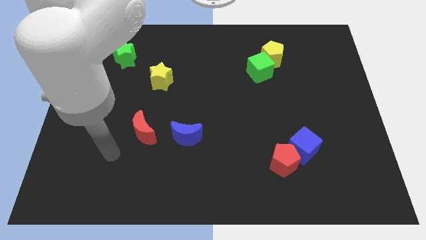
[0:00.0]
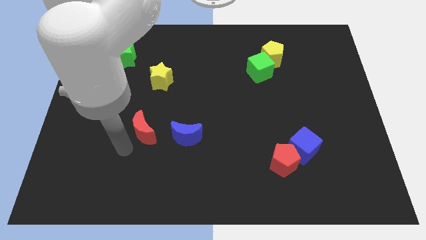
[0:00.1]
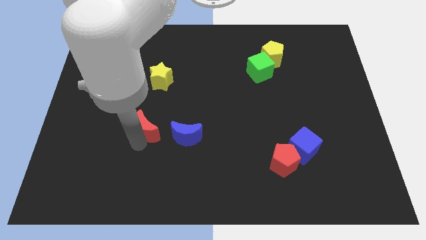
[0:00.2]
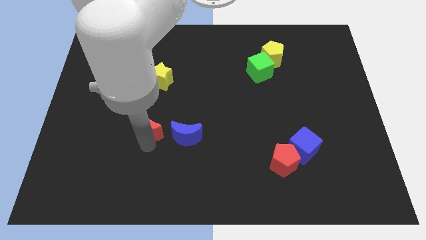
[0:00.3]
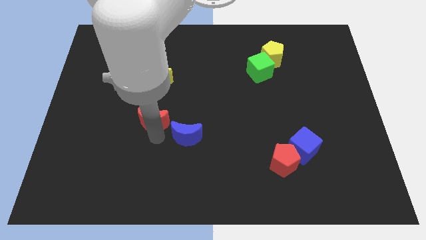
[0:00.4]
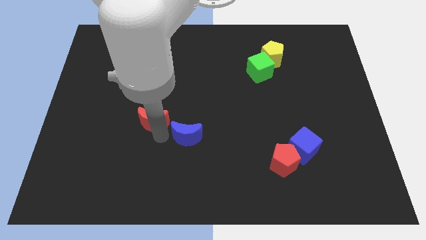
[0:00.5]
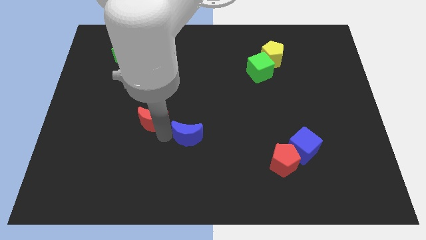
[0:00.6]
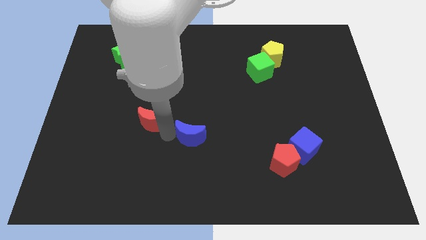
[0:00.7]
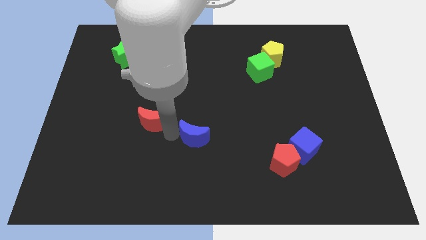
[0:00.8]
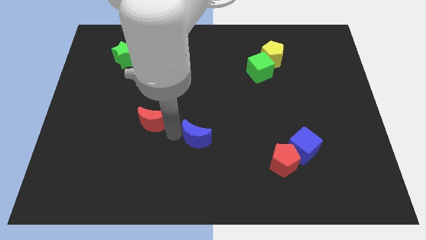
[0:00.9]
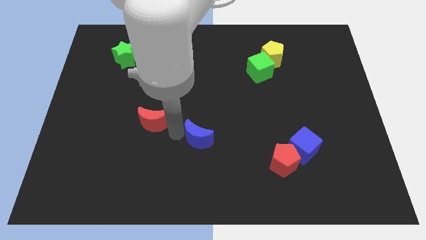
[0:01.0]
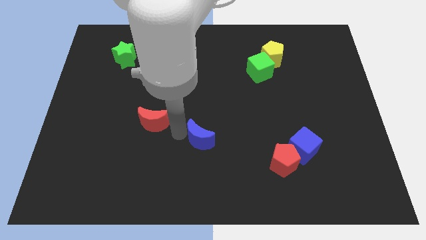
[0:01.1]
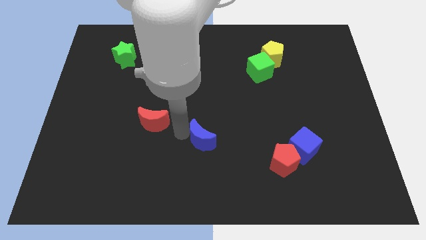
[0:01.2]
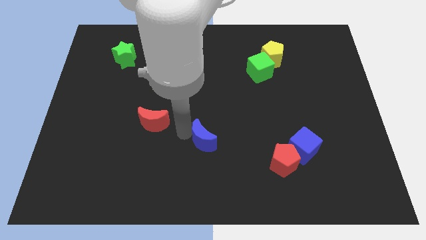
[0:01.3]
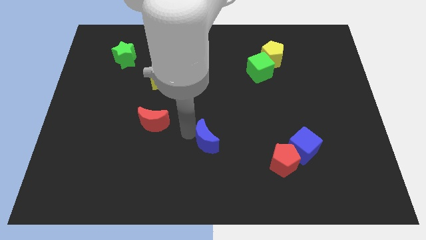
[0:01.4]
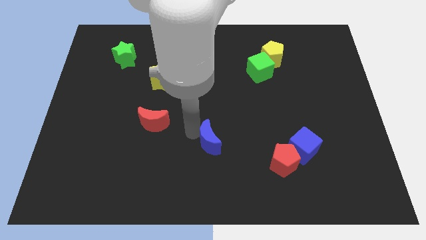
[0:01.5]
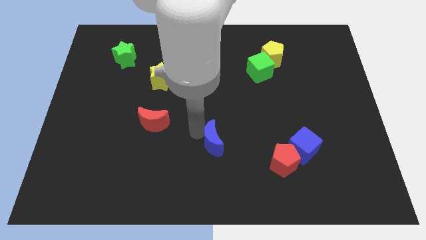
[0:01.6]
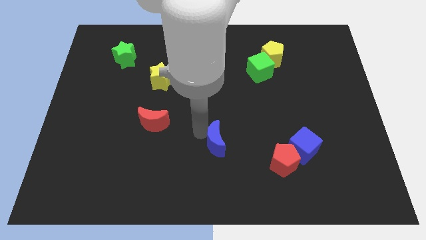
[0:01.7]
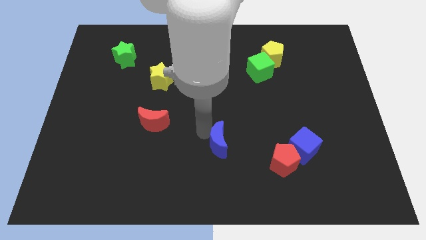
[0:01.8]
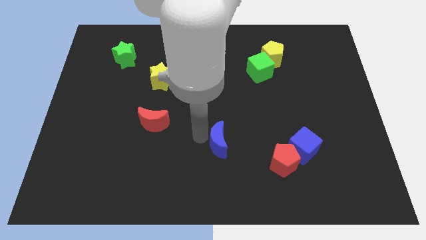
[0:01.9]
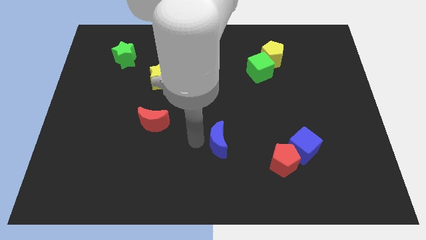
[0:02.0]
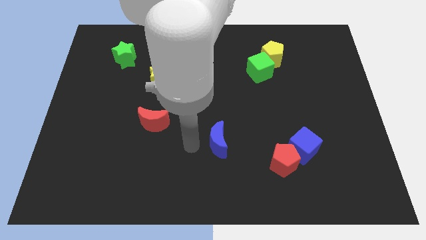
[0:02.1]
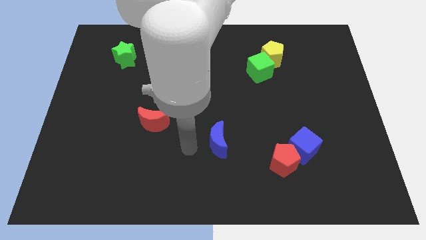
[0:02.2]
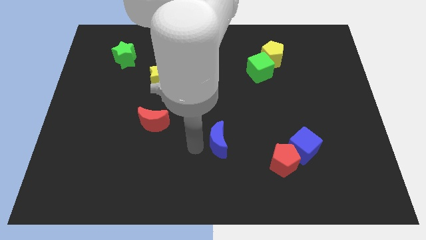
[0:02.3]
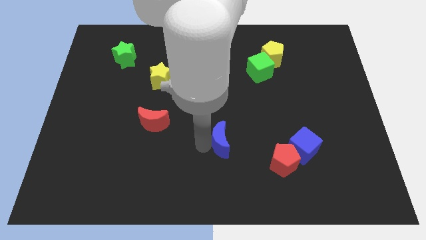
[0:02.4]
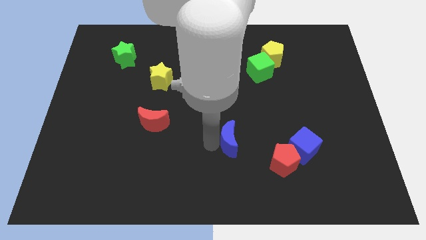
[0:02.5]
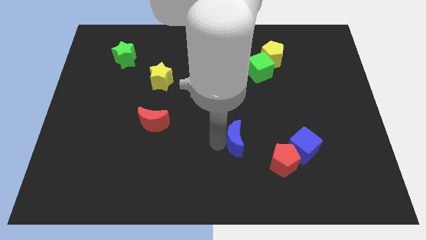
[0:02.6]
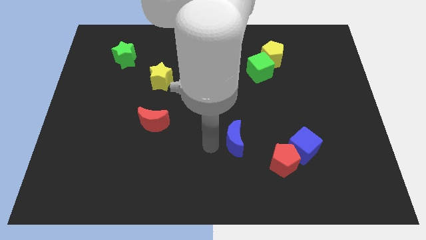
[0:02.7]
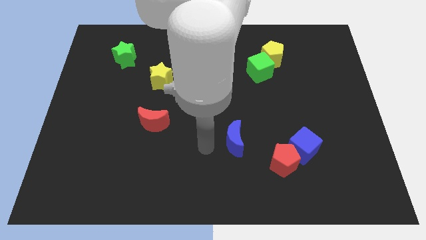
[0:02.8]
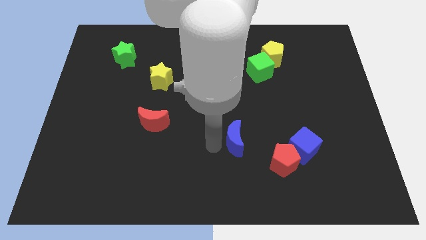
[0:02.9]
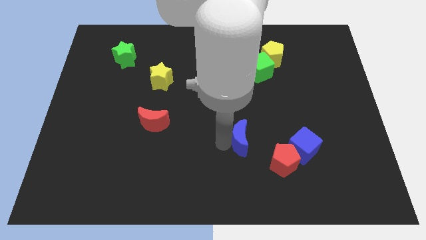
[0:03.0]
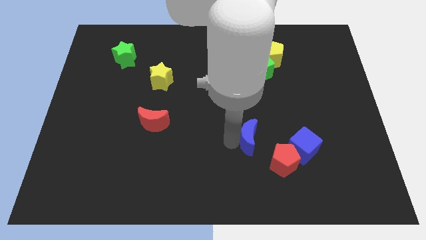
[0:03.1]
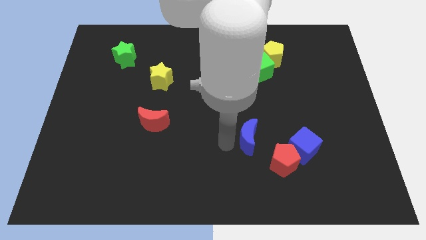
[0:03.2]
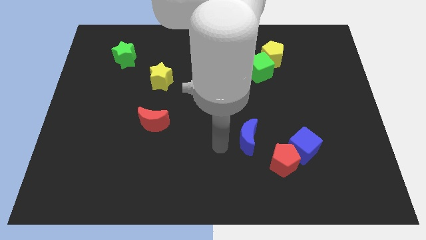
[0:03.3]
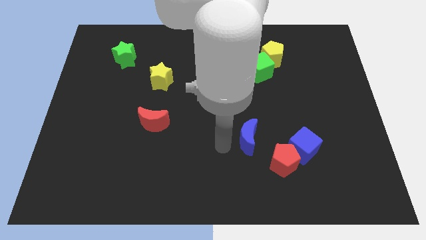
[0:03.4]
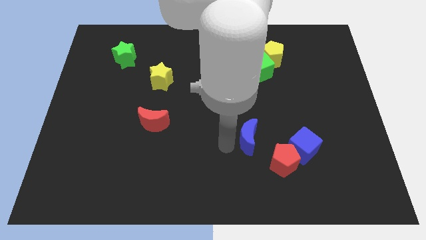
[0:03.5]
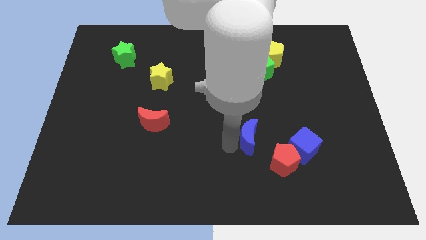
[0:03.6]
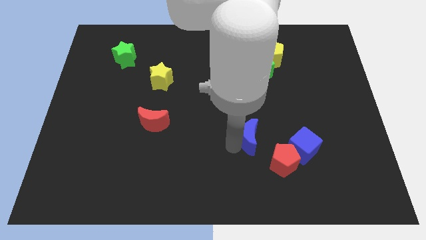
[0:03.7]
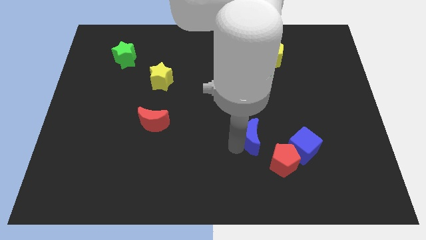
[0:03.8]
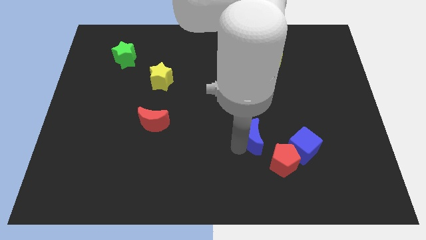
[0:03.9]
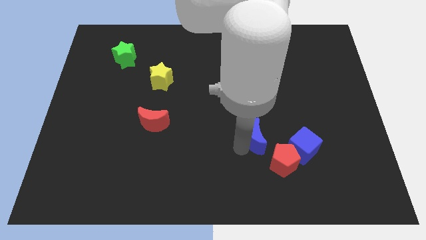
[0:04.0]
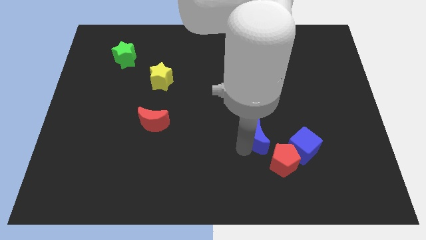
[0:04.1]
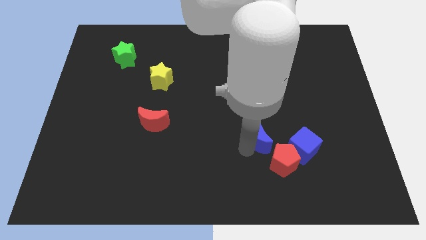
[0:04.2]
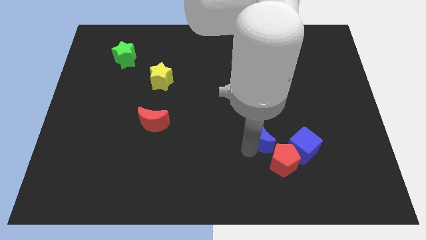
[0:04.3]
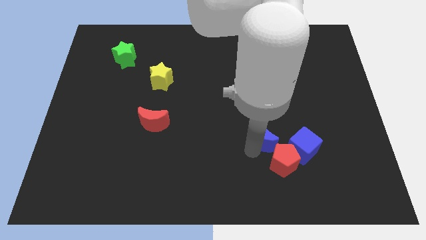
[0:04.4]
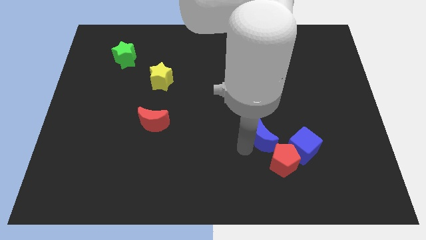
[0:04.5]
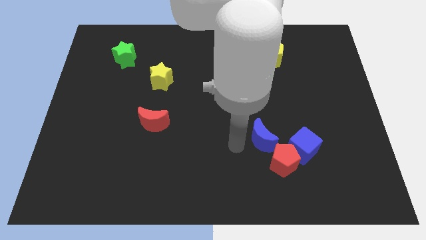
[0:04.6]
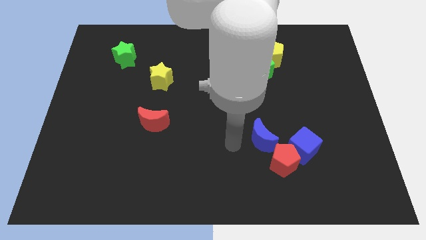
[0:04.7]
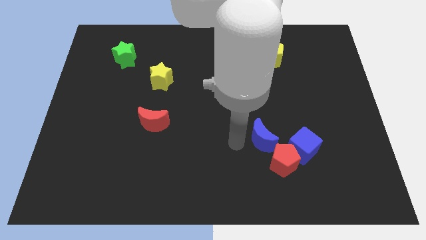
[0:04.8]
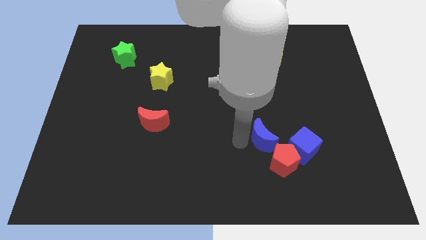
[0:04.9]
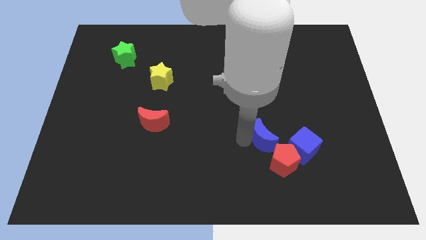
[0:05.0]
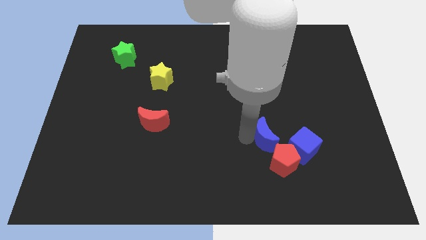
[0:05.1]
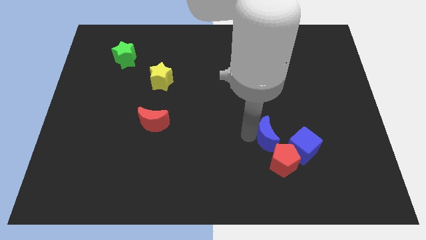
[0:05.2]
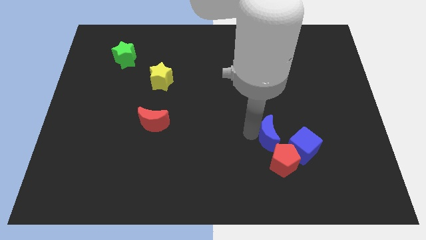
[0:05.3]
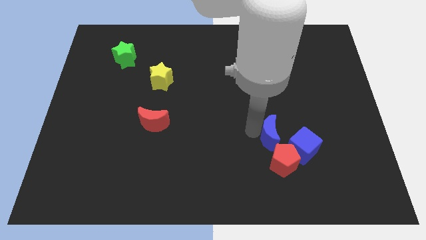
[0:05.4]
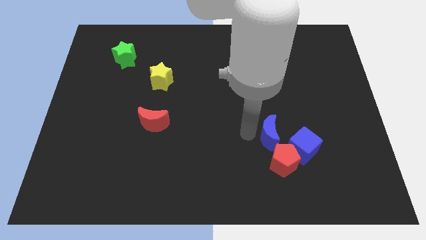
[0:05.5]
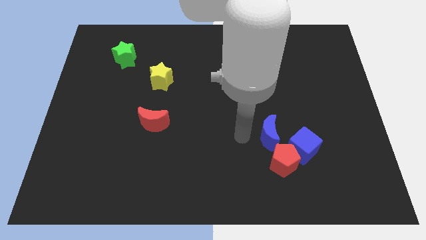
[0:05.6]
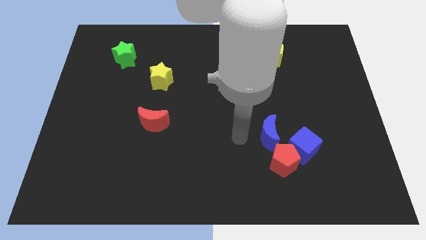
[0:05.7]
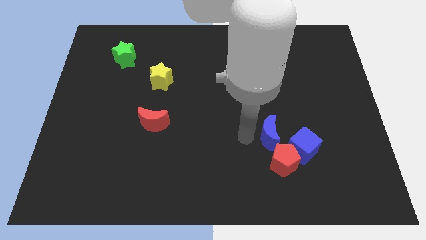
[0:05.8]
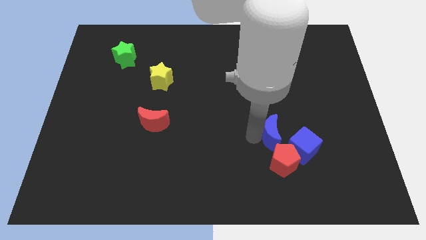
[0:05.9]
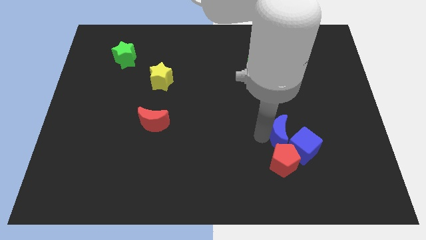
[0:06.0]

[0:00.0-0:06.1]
push the blue moon to the right

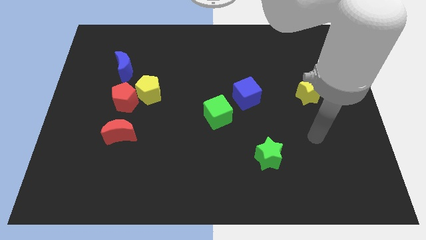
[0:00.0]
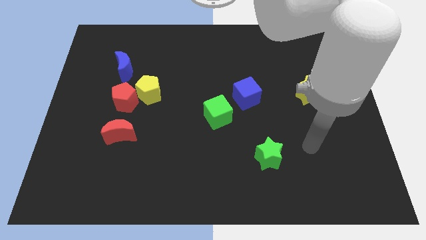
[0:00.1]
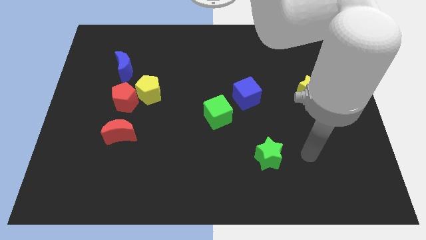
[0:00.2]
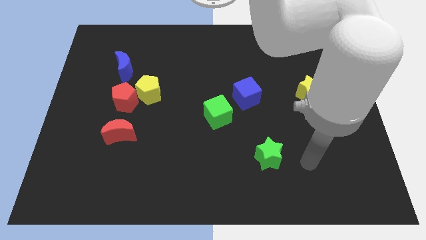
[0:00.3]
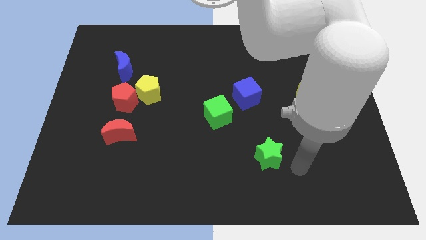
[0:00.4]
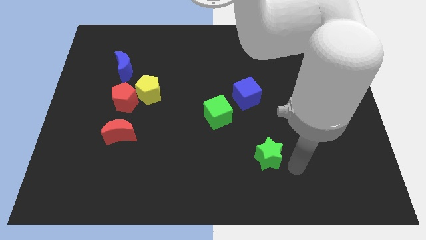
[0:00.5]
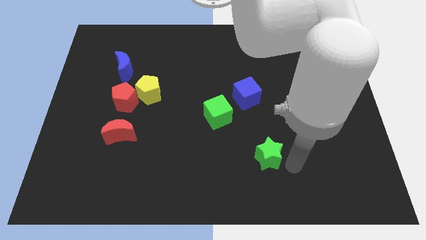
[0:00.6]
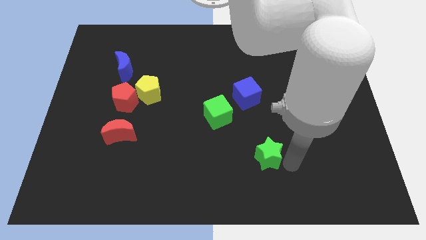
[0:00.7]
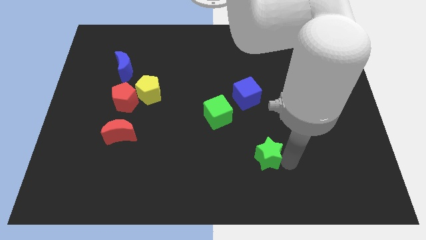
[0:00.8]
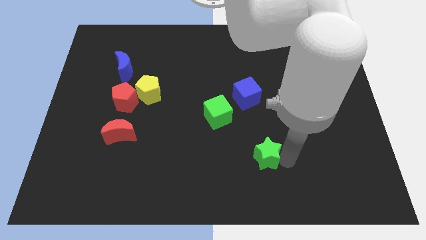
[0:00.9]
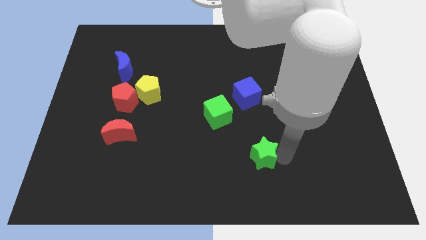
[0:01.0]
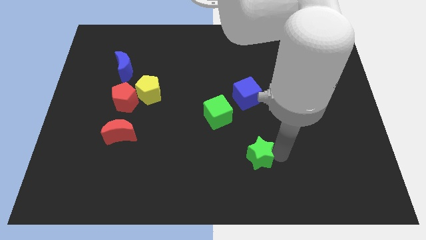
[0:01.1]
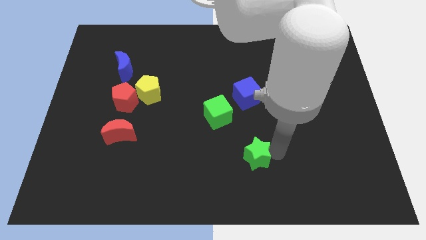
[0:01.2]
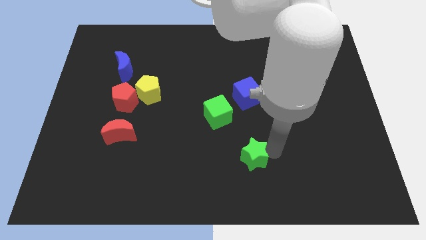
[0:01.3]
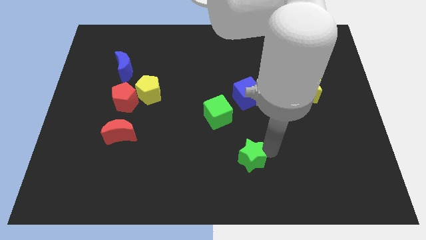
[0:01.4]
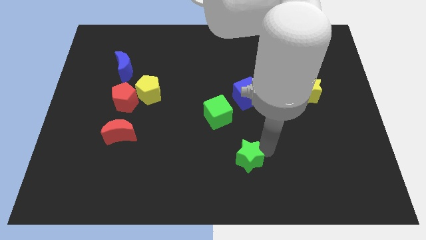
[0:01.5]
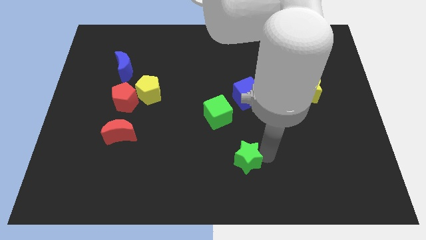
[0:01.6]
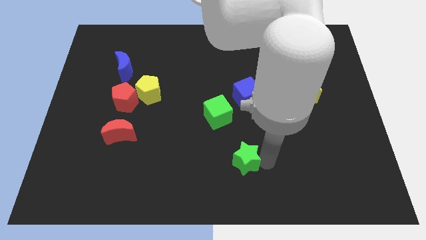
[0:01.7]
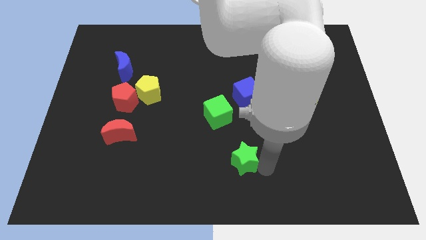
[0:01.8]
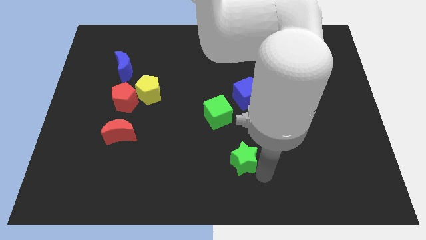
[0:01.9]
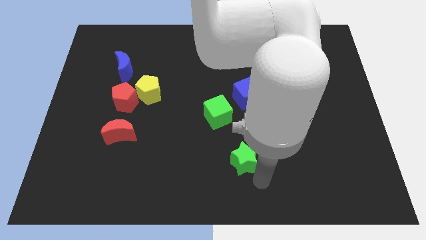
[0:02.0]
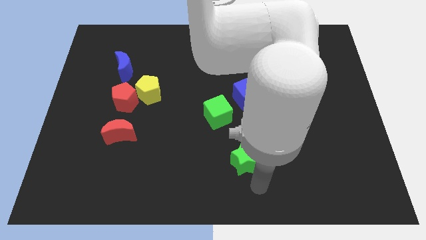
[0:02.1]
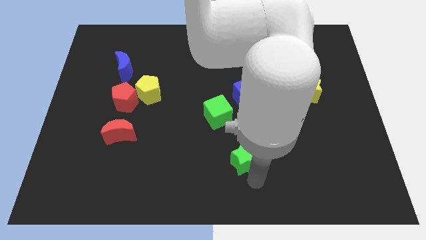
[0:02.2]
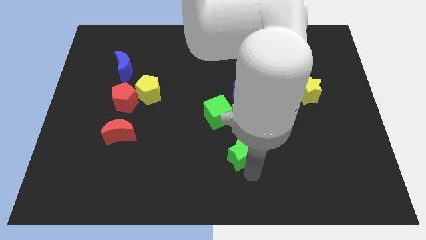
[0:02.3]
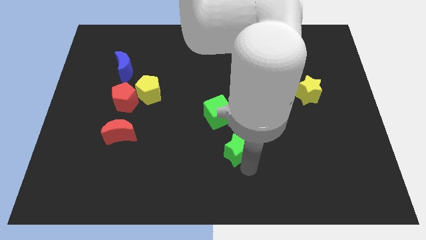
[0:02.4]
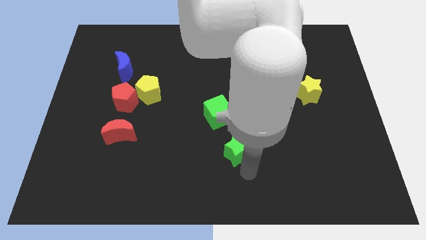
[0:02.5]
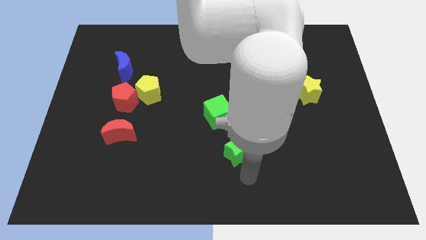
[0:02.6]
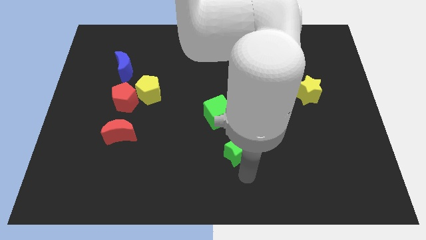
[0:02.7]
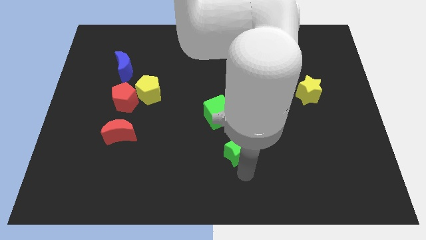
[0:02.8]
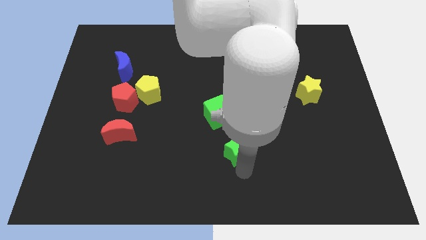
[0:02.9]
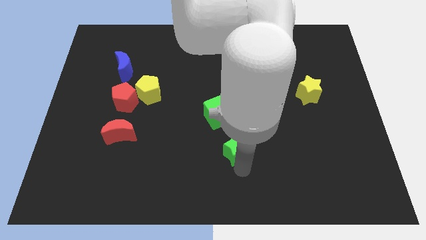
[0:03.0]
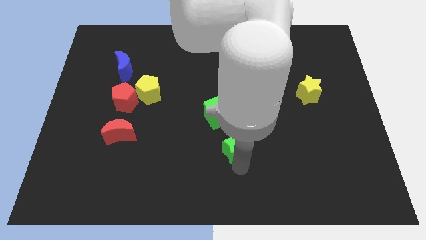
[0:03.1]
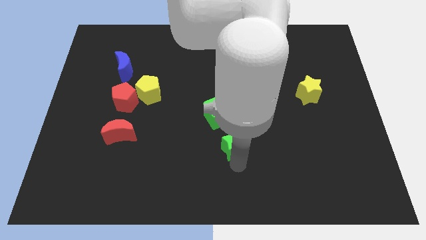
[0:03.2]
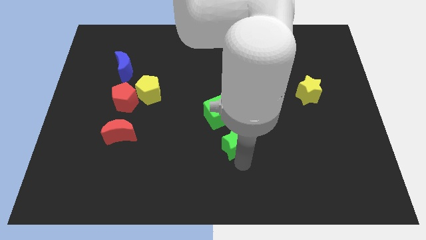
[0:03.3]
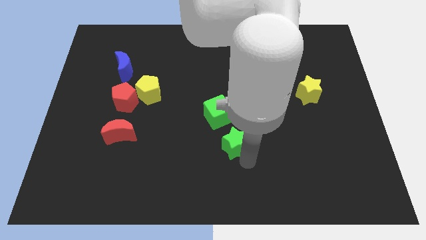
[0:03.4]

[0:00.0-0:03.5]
move the green star diagonally upwards and to the left a little
